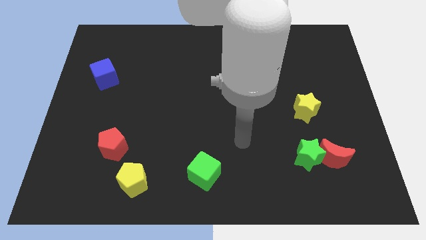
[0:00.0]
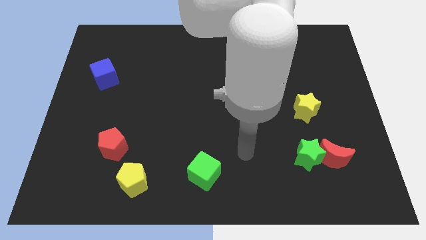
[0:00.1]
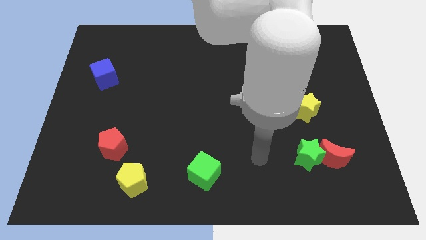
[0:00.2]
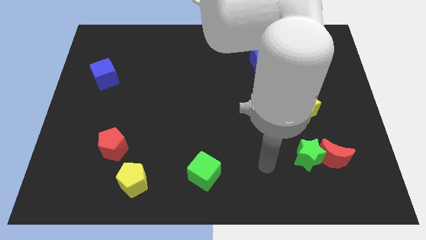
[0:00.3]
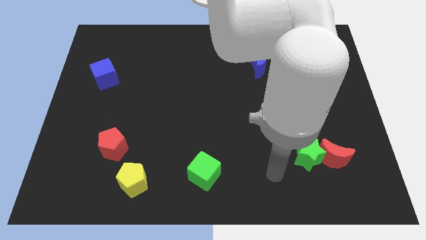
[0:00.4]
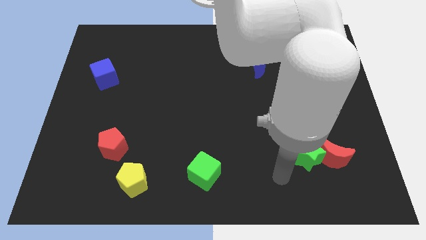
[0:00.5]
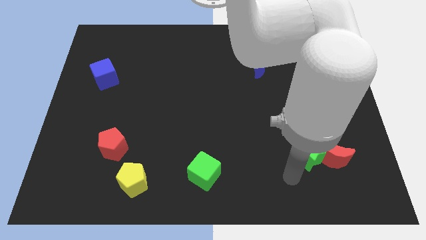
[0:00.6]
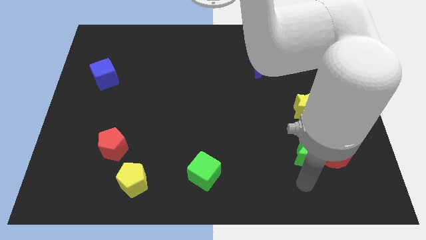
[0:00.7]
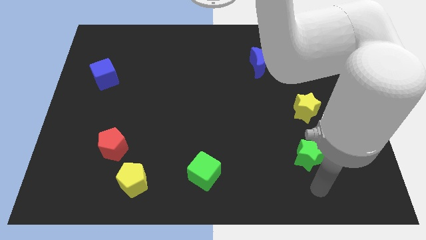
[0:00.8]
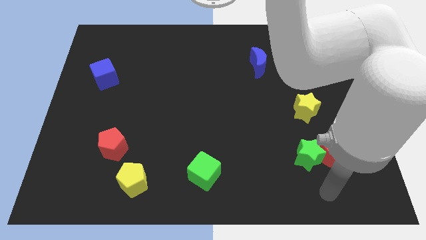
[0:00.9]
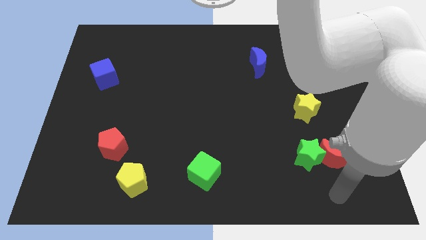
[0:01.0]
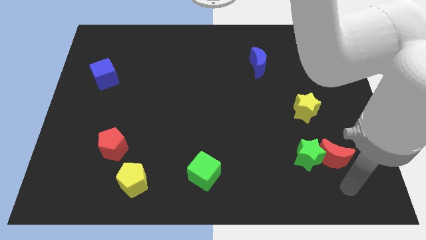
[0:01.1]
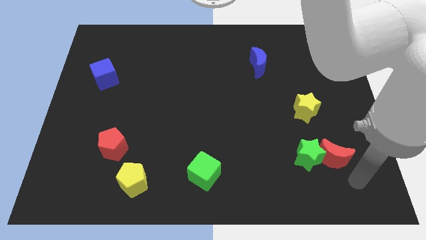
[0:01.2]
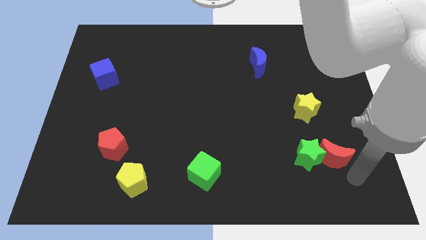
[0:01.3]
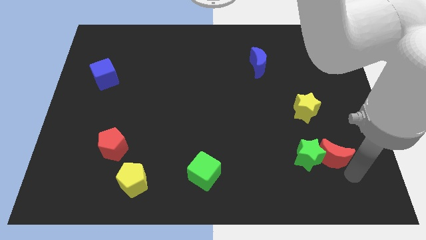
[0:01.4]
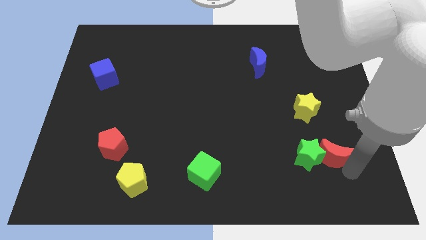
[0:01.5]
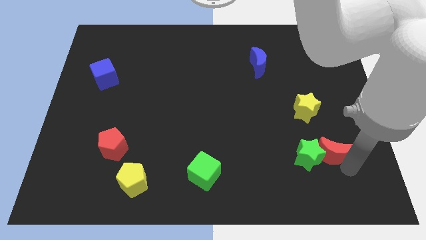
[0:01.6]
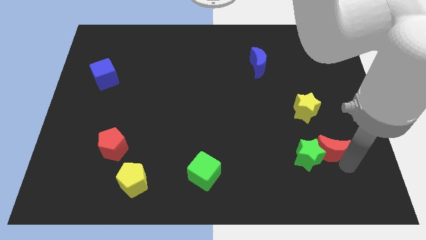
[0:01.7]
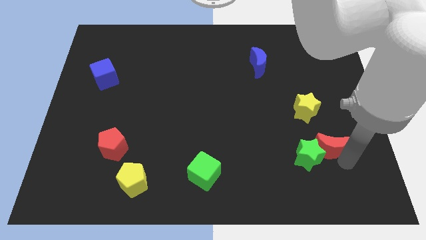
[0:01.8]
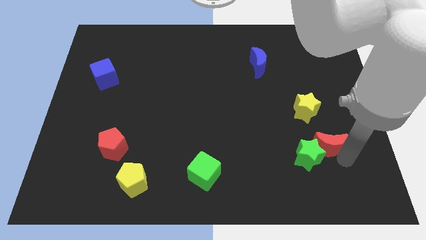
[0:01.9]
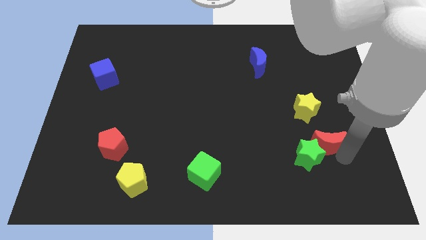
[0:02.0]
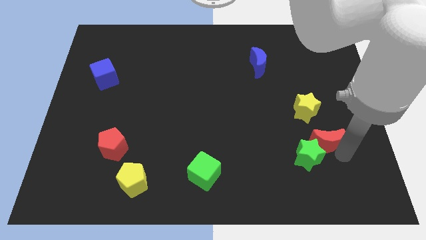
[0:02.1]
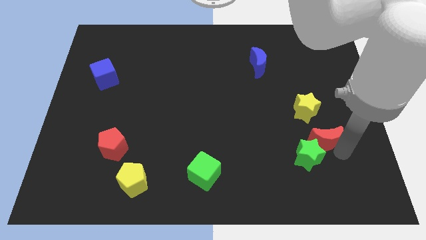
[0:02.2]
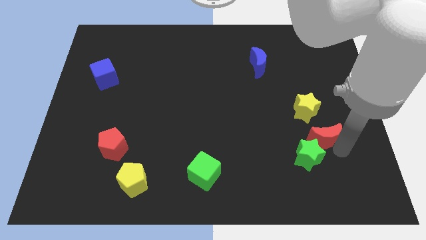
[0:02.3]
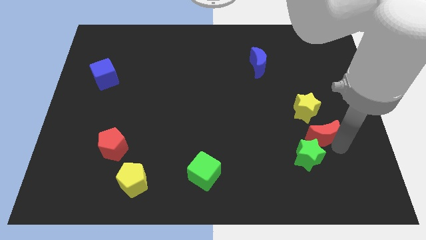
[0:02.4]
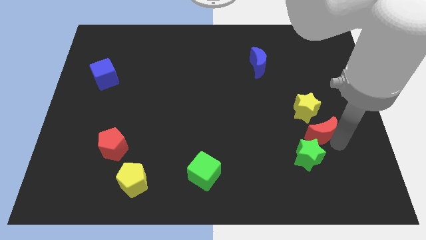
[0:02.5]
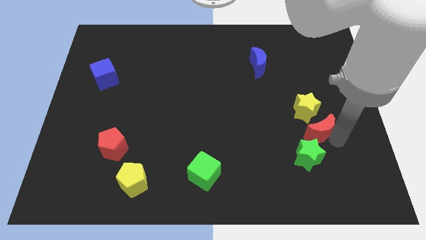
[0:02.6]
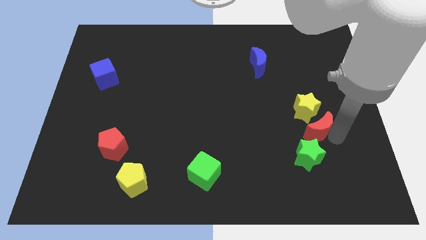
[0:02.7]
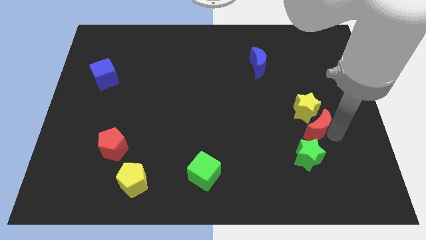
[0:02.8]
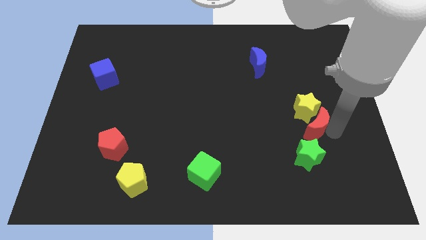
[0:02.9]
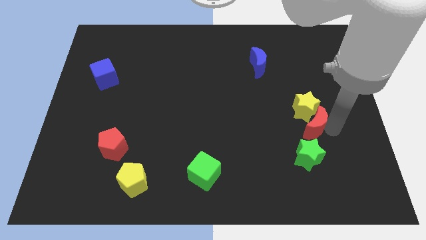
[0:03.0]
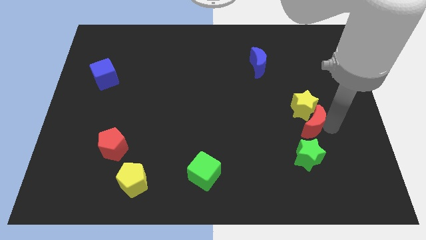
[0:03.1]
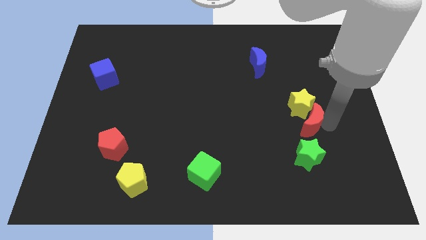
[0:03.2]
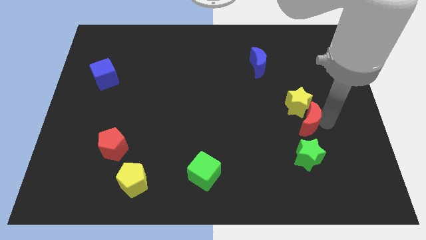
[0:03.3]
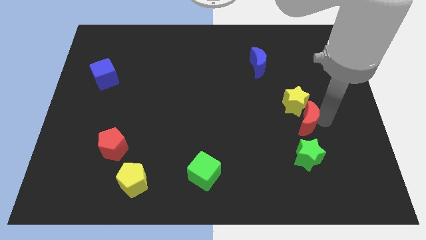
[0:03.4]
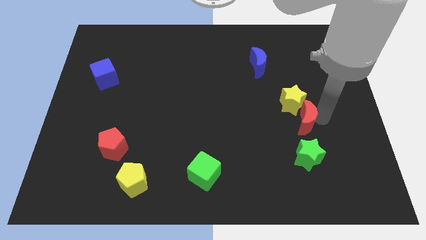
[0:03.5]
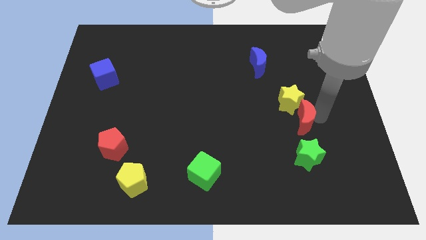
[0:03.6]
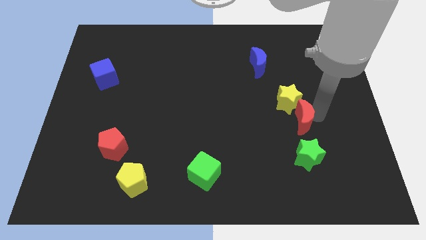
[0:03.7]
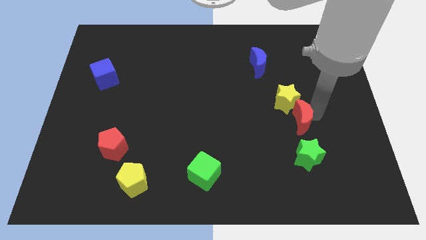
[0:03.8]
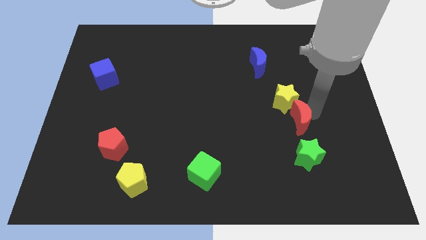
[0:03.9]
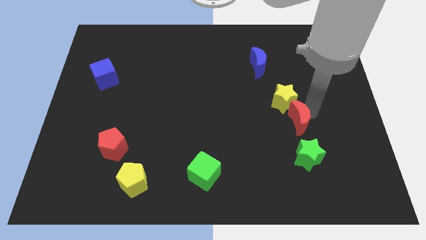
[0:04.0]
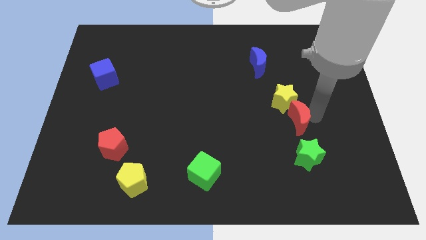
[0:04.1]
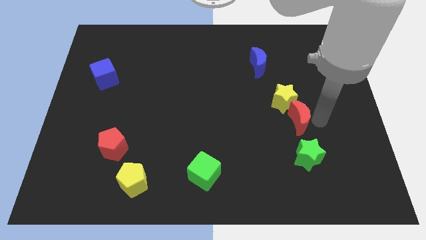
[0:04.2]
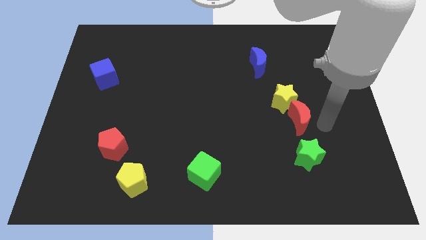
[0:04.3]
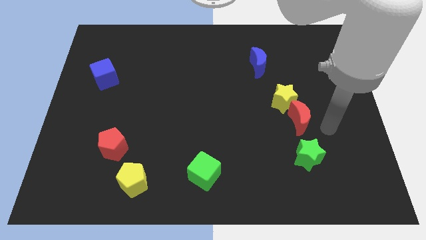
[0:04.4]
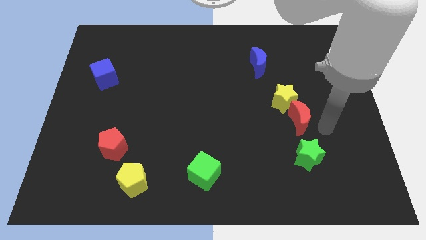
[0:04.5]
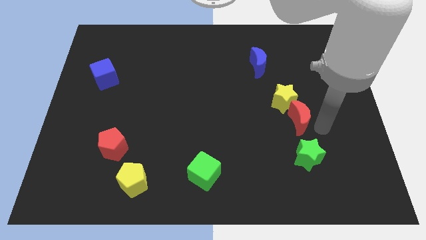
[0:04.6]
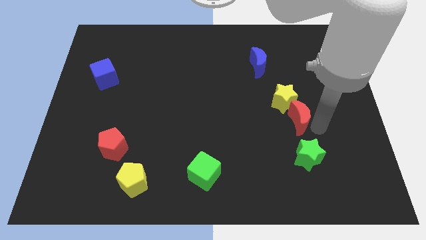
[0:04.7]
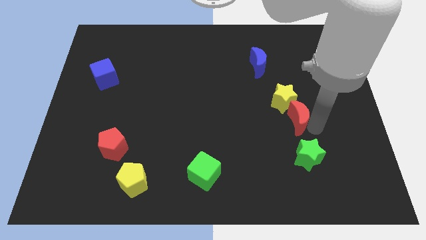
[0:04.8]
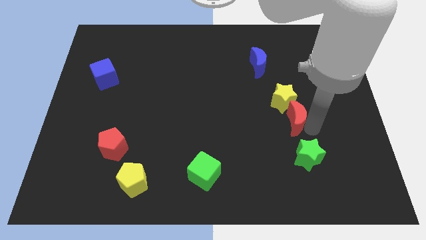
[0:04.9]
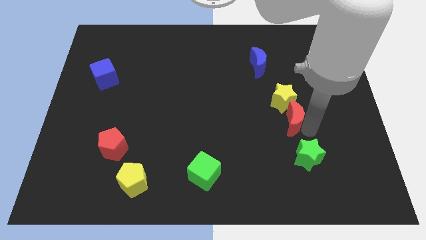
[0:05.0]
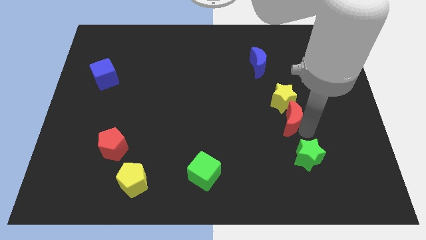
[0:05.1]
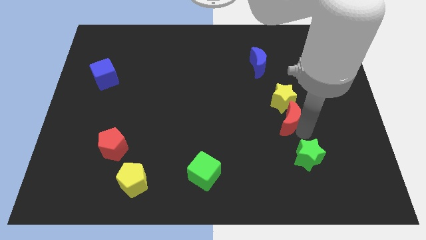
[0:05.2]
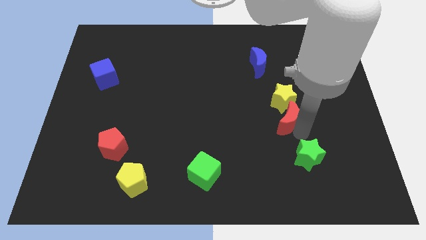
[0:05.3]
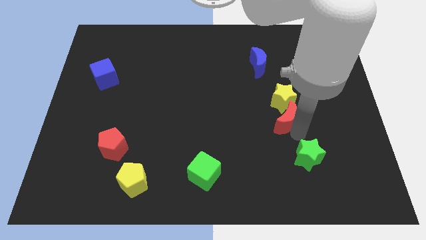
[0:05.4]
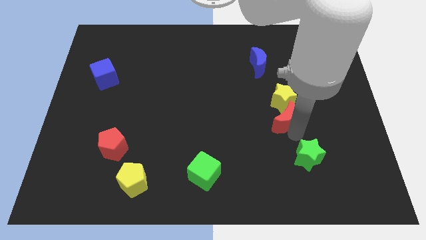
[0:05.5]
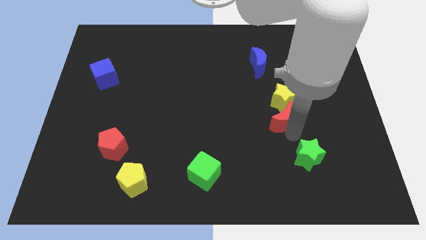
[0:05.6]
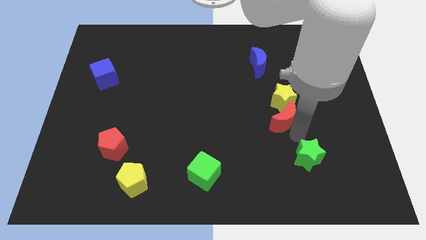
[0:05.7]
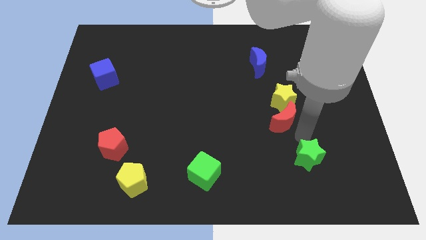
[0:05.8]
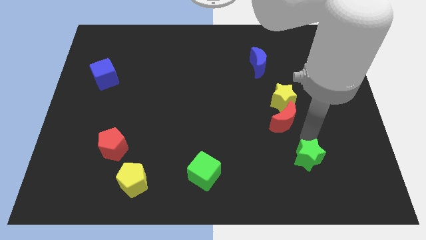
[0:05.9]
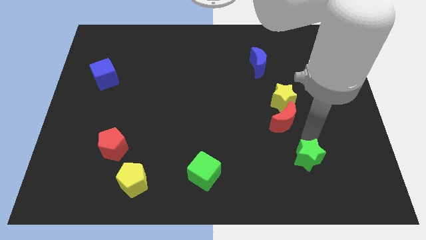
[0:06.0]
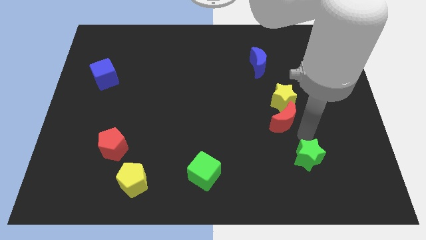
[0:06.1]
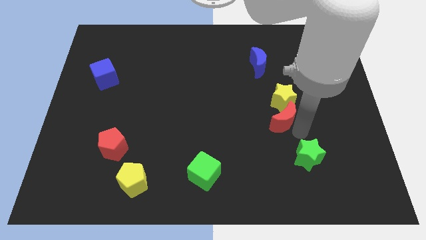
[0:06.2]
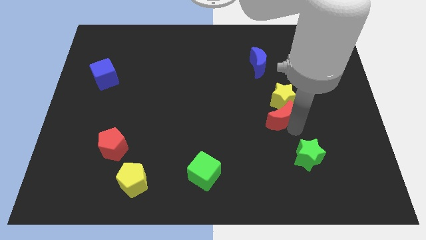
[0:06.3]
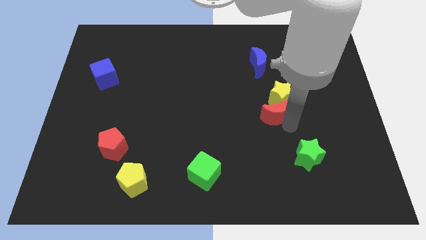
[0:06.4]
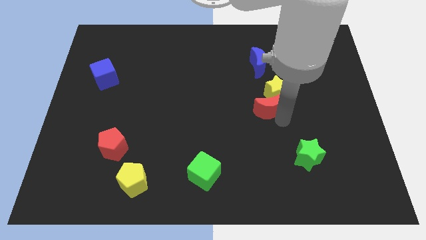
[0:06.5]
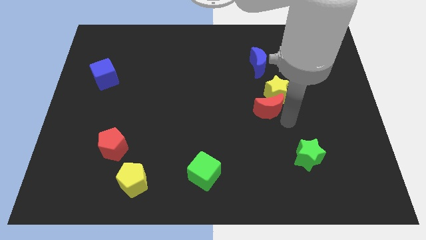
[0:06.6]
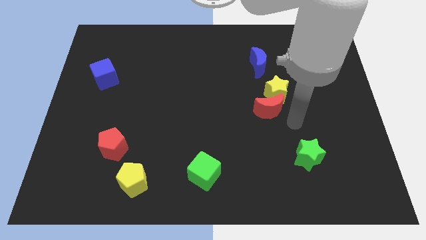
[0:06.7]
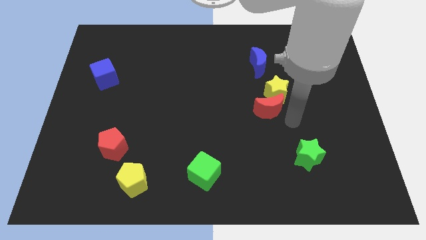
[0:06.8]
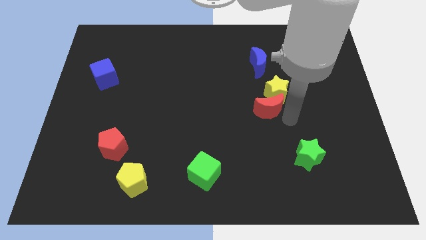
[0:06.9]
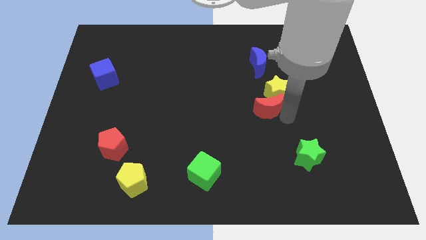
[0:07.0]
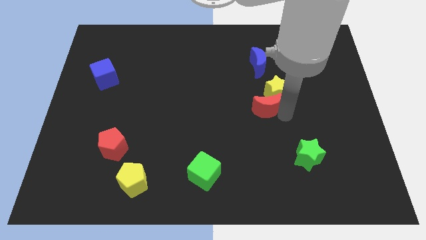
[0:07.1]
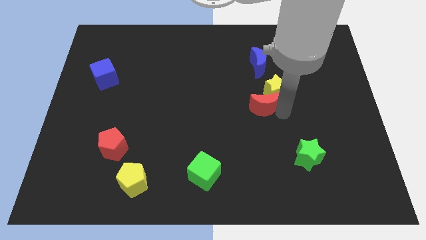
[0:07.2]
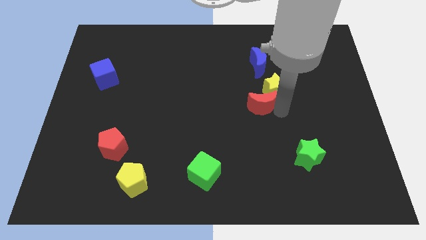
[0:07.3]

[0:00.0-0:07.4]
move the red moon upwards and to the left

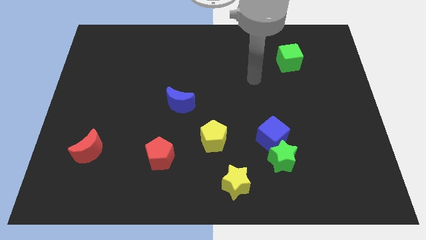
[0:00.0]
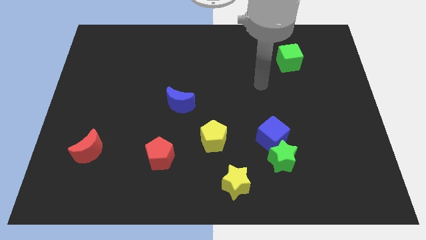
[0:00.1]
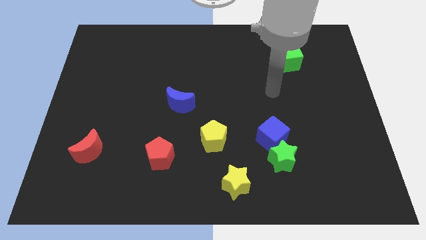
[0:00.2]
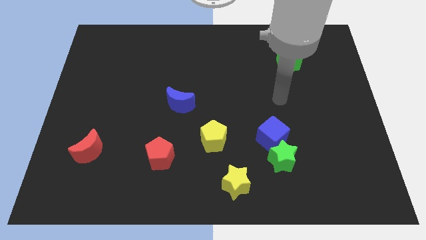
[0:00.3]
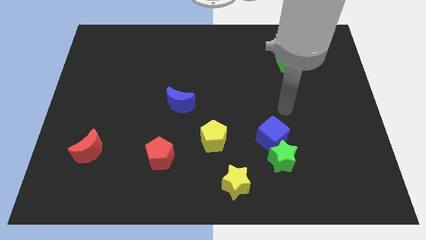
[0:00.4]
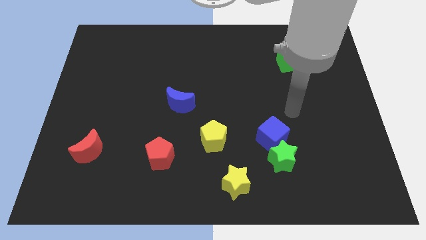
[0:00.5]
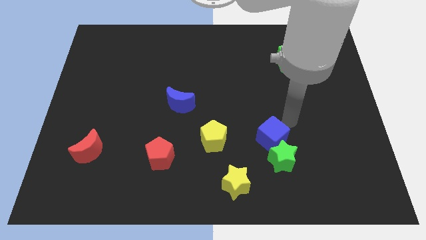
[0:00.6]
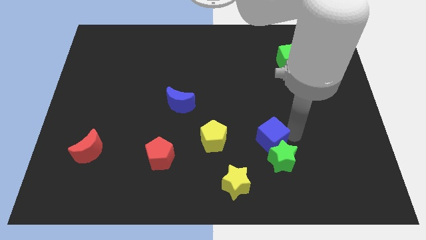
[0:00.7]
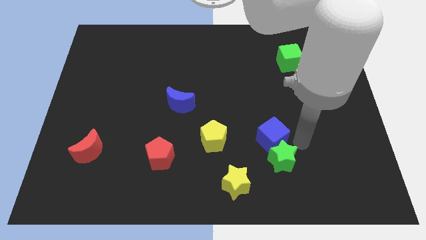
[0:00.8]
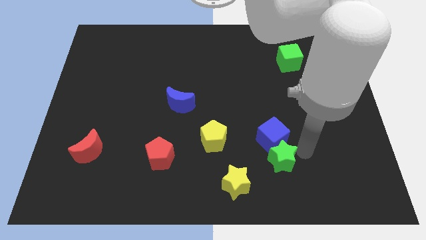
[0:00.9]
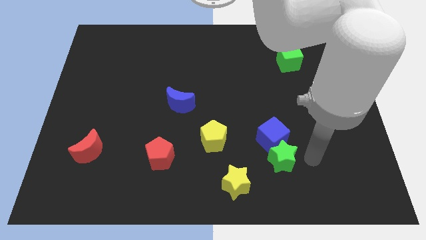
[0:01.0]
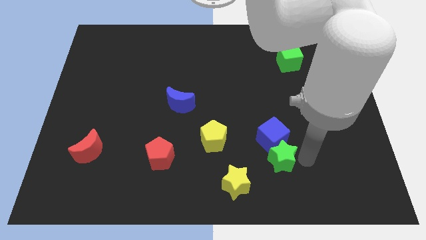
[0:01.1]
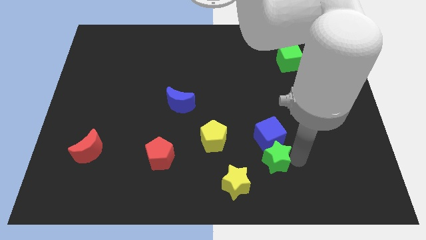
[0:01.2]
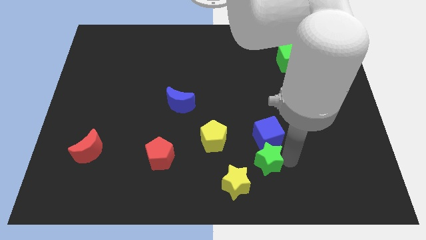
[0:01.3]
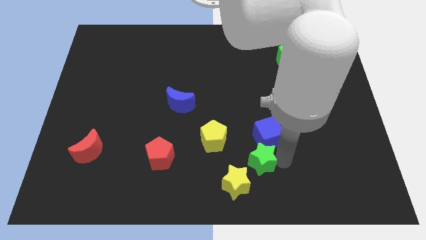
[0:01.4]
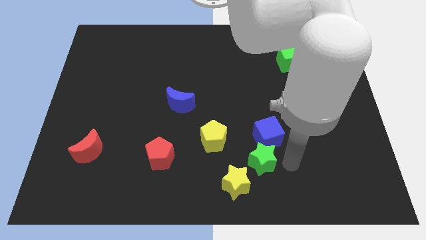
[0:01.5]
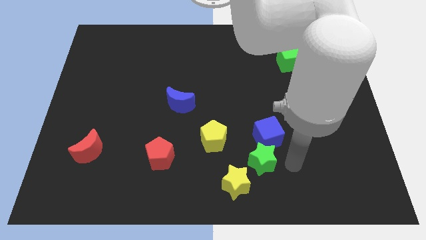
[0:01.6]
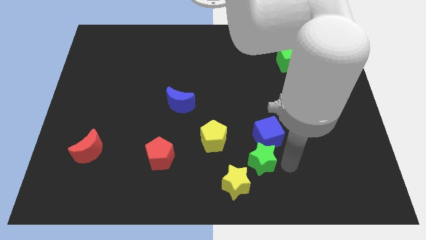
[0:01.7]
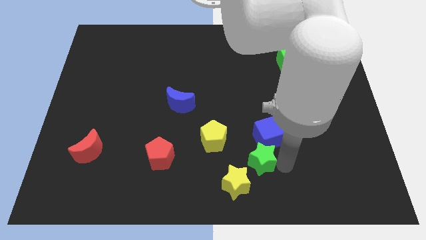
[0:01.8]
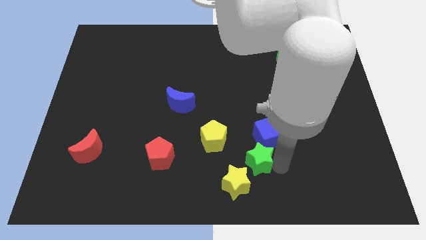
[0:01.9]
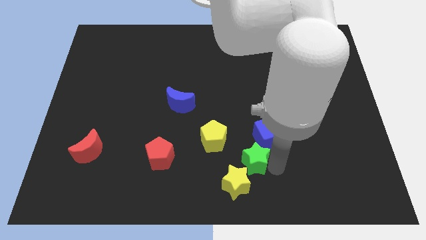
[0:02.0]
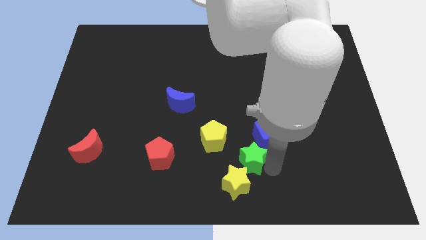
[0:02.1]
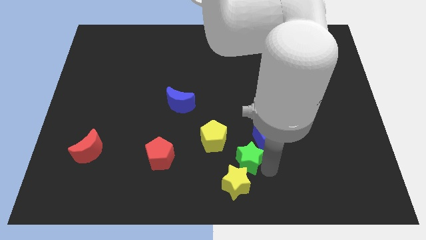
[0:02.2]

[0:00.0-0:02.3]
push the green star to the left a little
